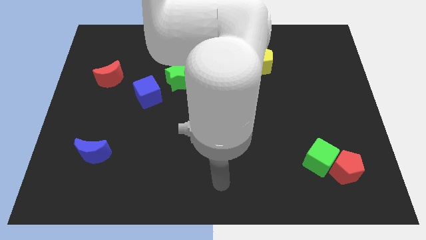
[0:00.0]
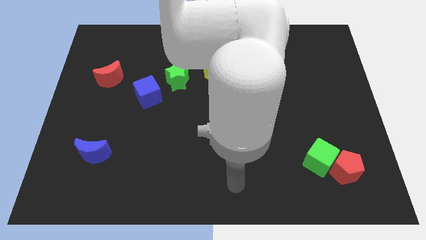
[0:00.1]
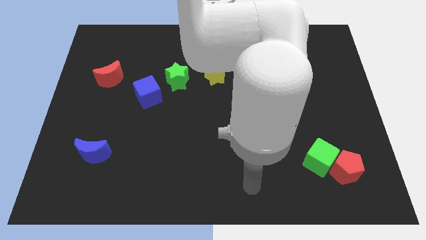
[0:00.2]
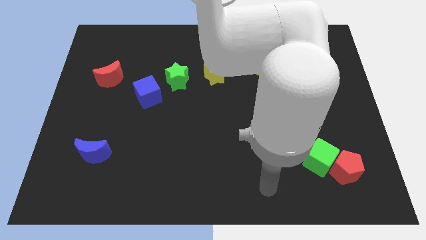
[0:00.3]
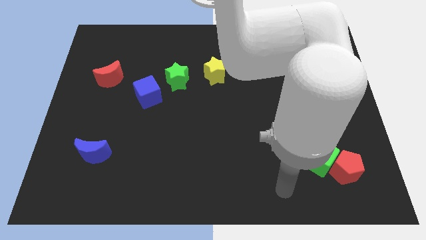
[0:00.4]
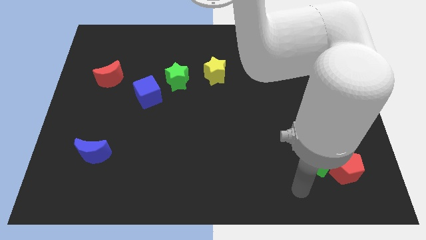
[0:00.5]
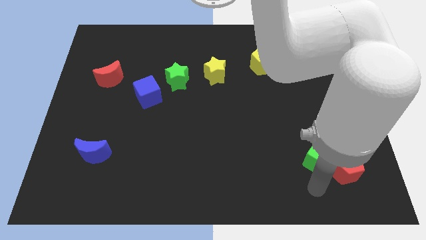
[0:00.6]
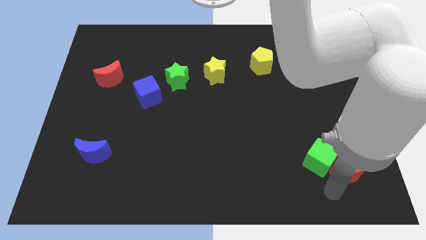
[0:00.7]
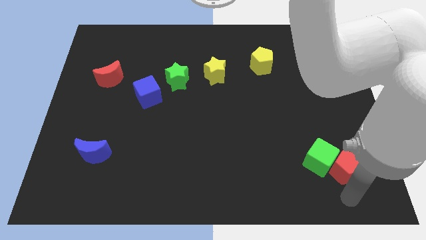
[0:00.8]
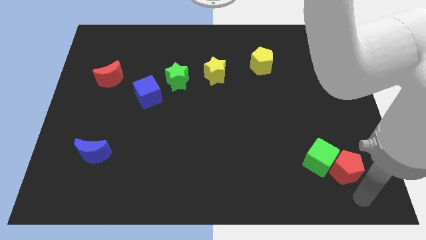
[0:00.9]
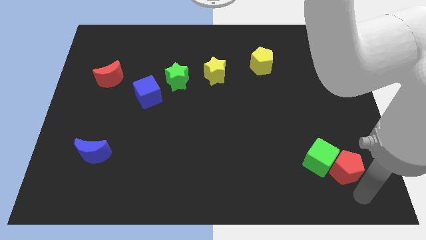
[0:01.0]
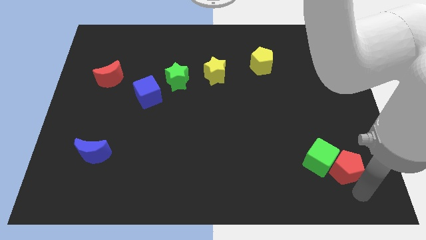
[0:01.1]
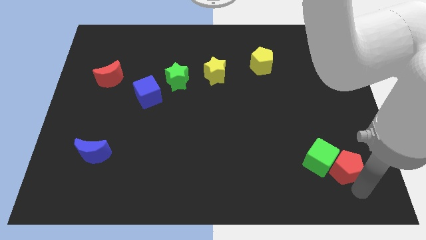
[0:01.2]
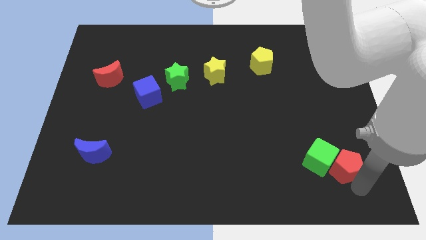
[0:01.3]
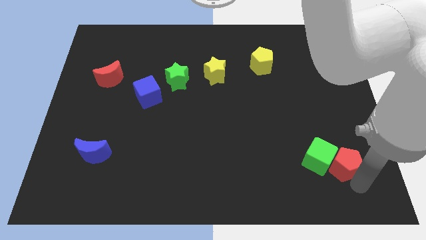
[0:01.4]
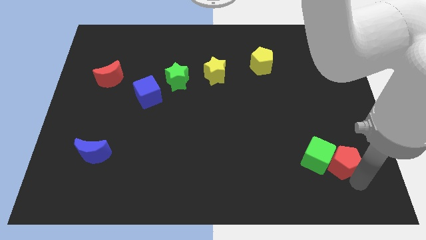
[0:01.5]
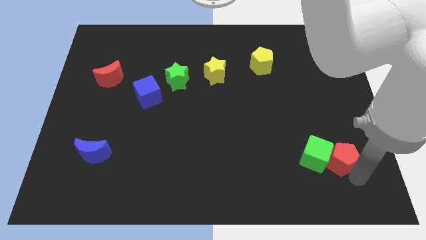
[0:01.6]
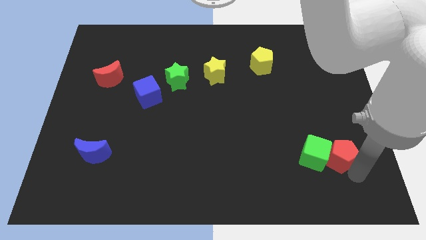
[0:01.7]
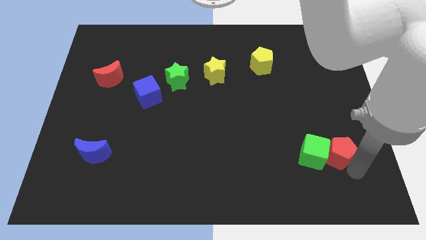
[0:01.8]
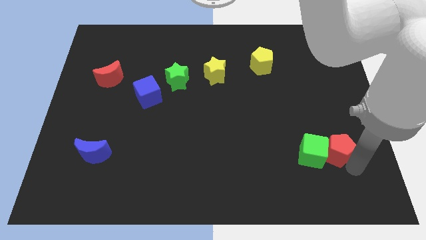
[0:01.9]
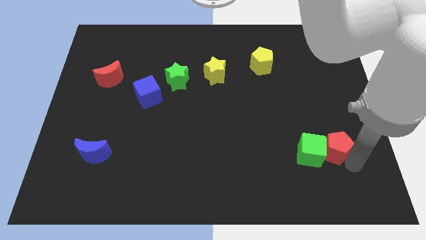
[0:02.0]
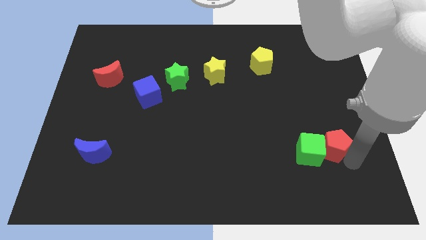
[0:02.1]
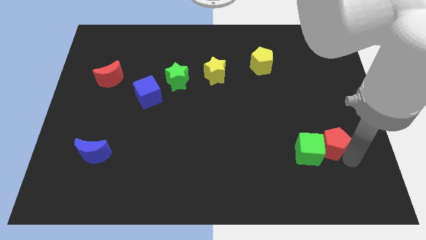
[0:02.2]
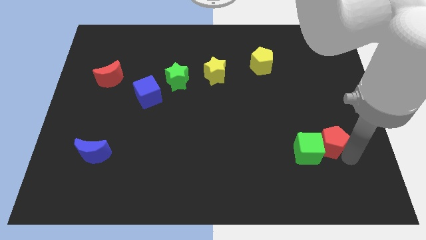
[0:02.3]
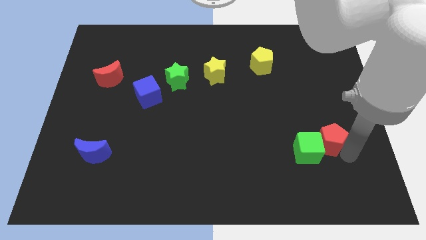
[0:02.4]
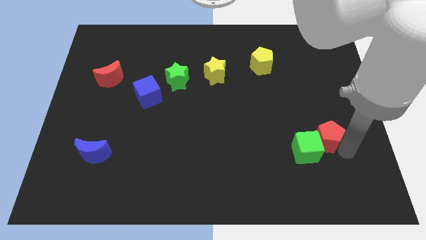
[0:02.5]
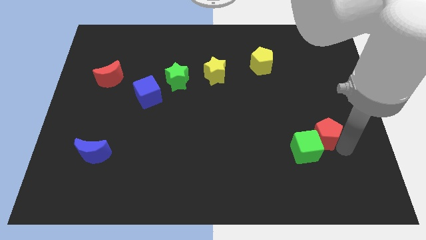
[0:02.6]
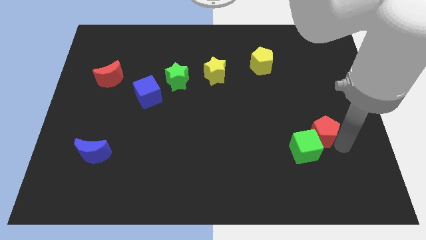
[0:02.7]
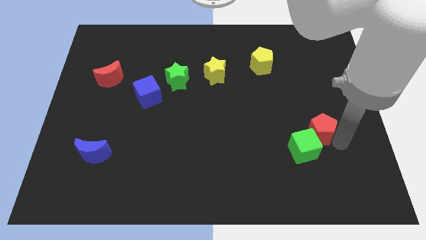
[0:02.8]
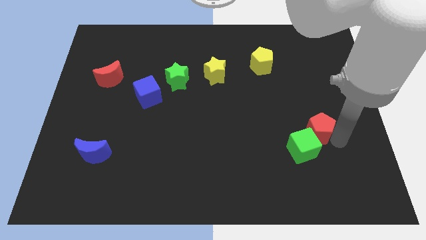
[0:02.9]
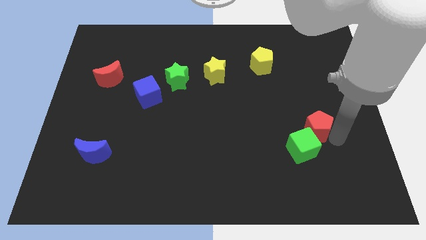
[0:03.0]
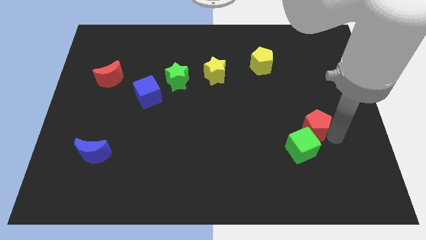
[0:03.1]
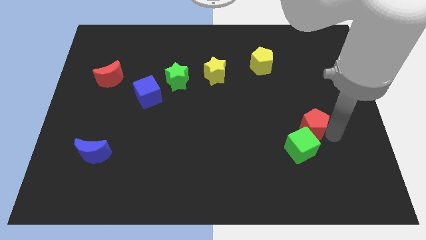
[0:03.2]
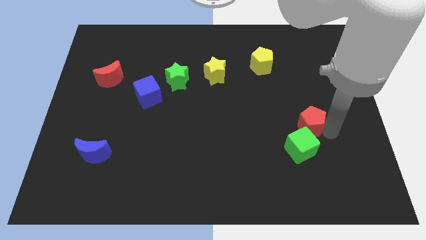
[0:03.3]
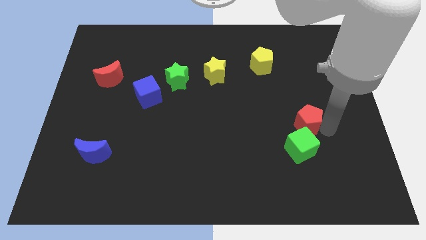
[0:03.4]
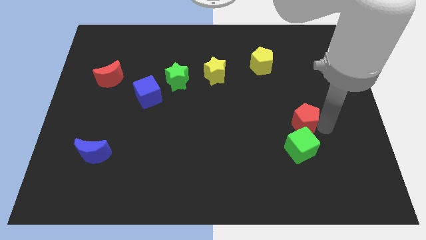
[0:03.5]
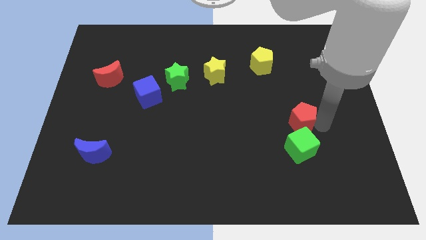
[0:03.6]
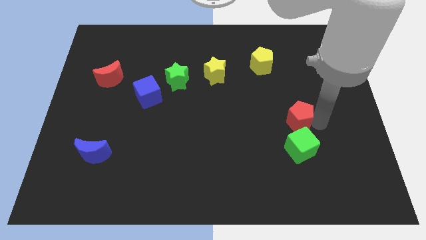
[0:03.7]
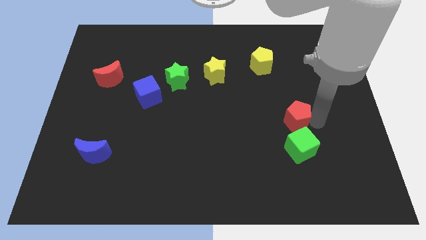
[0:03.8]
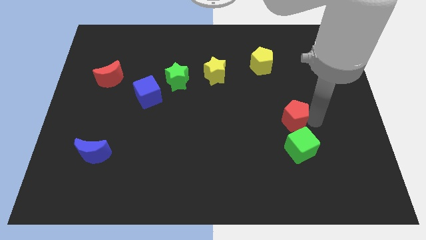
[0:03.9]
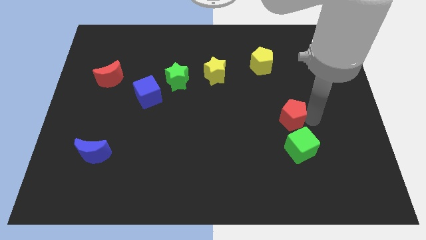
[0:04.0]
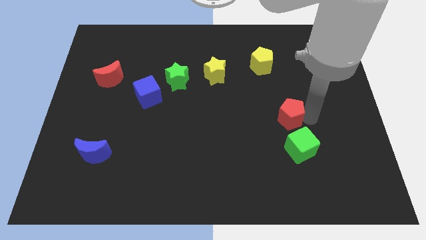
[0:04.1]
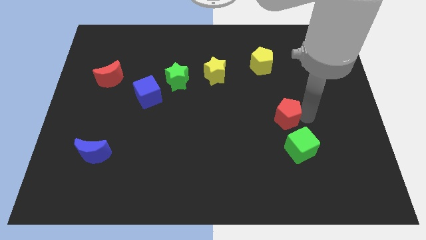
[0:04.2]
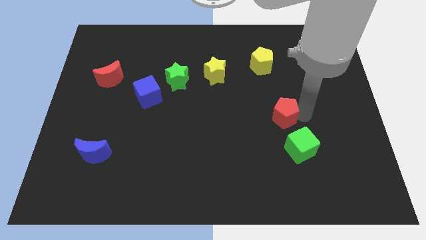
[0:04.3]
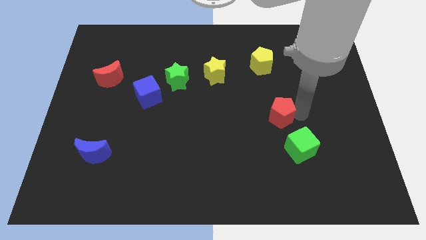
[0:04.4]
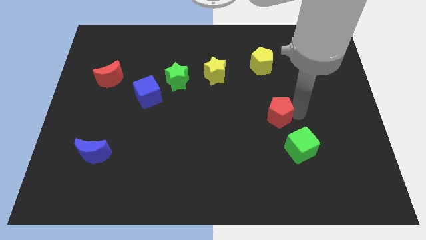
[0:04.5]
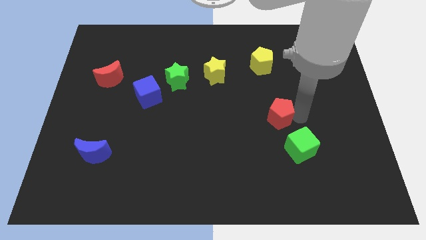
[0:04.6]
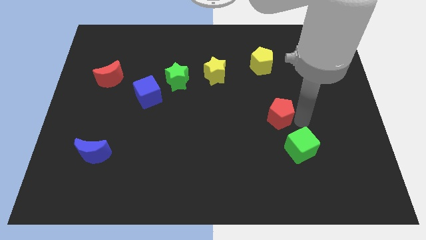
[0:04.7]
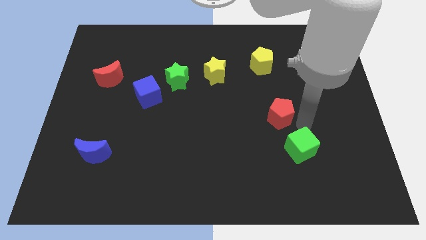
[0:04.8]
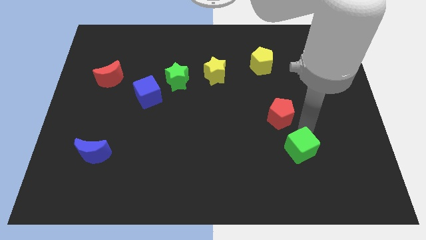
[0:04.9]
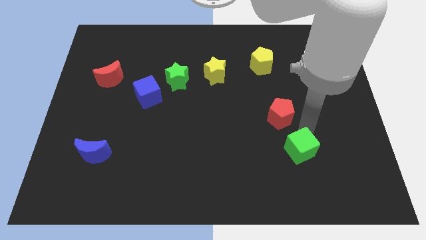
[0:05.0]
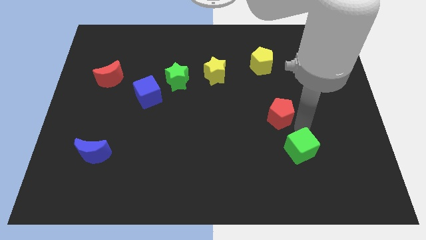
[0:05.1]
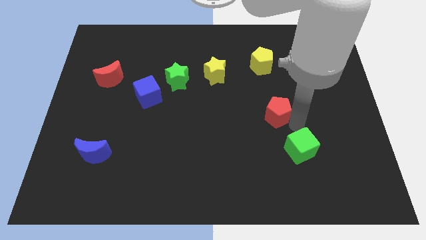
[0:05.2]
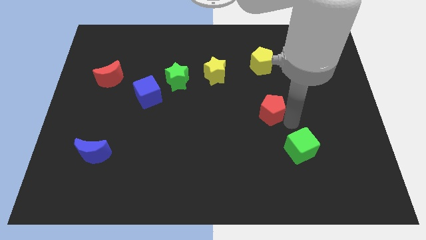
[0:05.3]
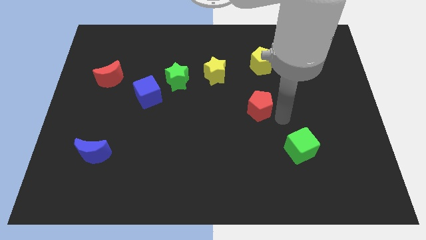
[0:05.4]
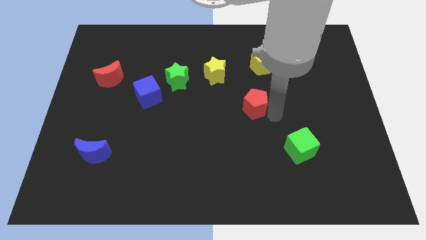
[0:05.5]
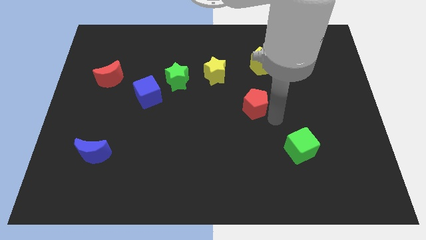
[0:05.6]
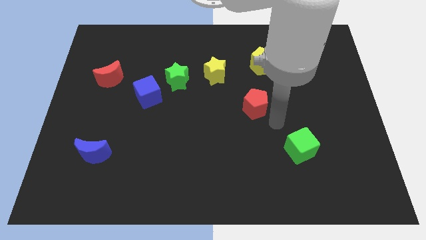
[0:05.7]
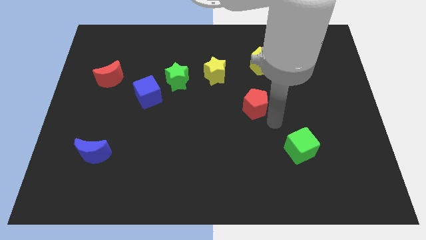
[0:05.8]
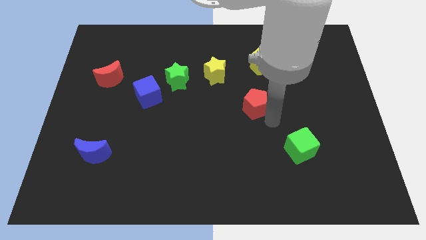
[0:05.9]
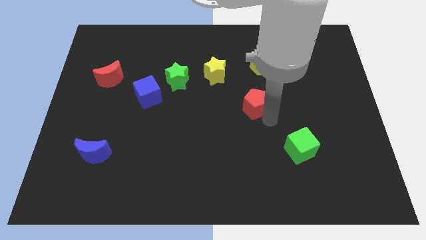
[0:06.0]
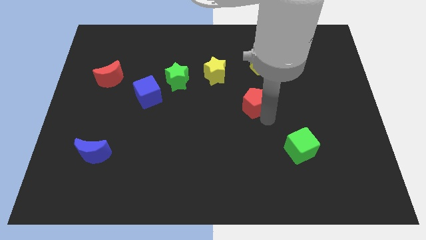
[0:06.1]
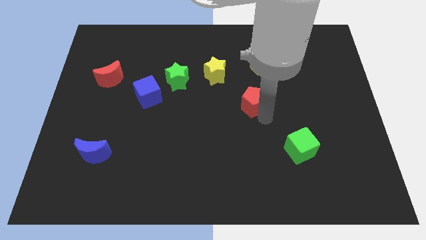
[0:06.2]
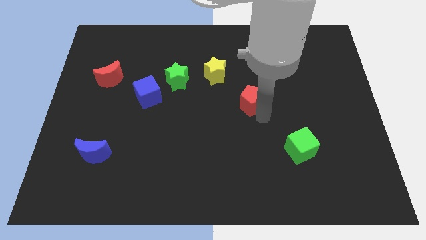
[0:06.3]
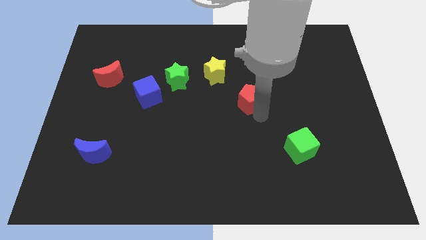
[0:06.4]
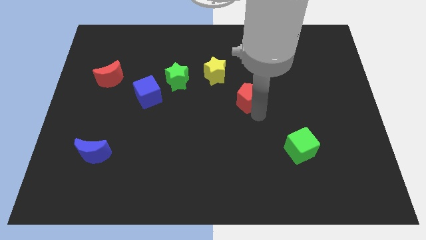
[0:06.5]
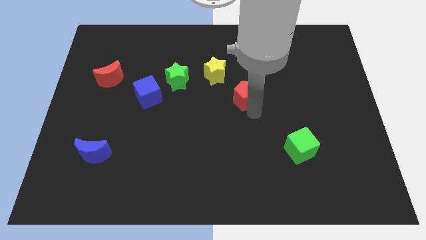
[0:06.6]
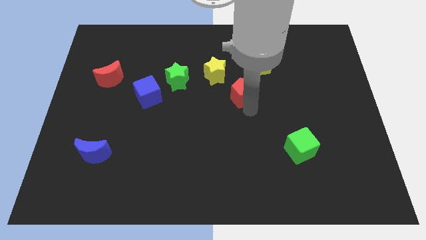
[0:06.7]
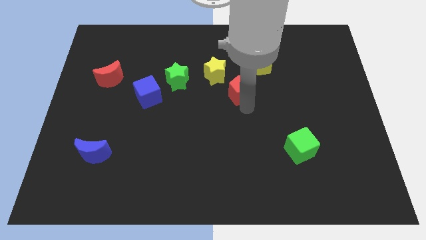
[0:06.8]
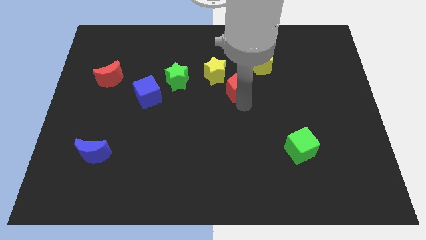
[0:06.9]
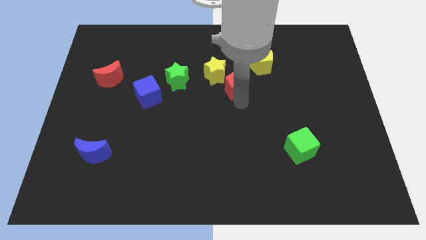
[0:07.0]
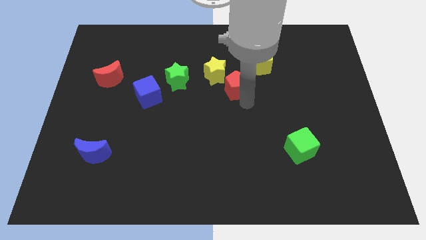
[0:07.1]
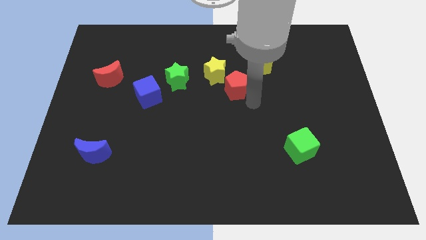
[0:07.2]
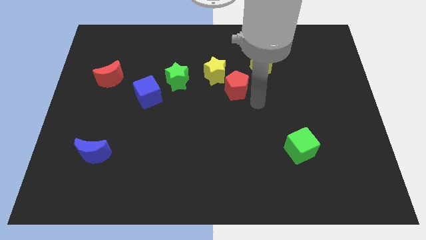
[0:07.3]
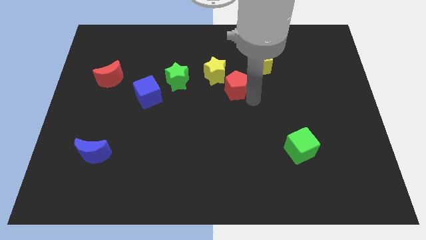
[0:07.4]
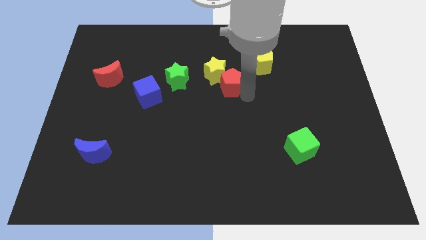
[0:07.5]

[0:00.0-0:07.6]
put the red pentagon close to the yellow star

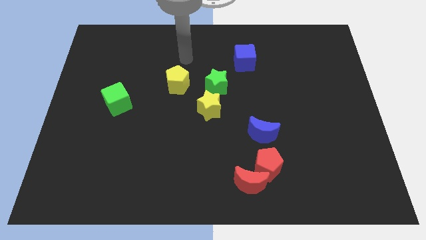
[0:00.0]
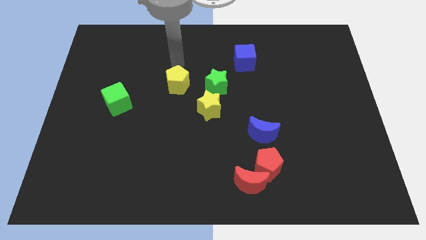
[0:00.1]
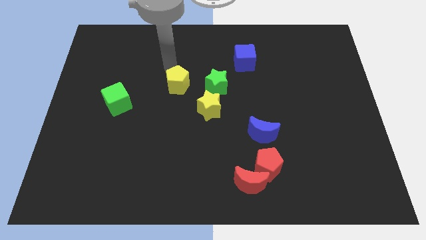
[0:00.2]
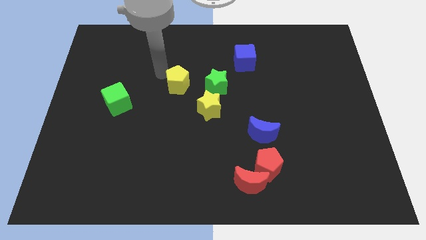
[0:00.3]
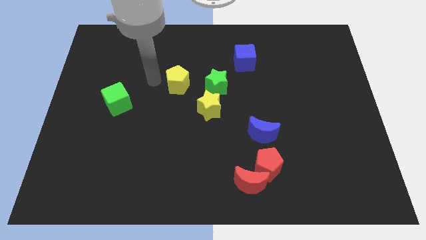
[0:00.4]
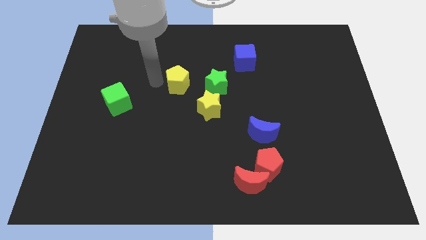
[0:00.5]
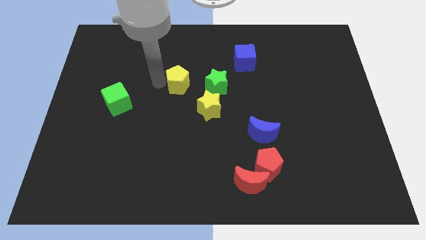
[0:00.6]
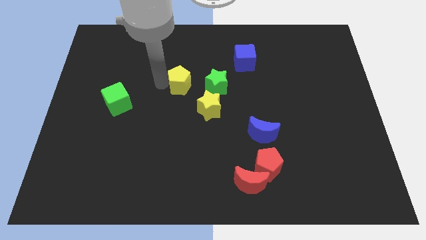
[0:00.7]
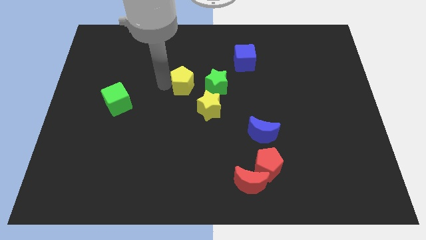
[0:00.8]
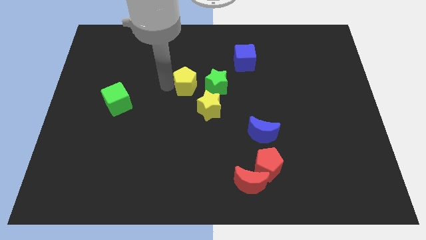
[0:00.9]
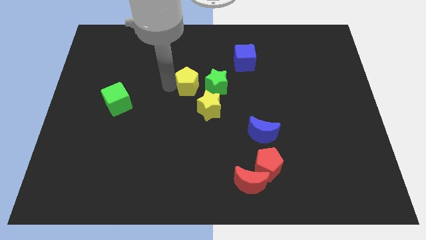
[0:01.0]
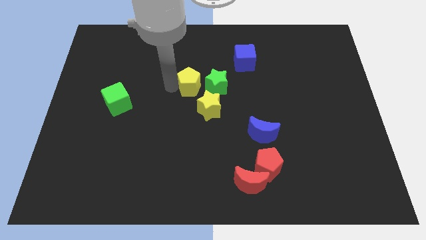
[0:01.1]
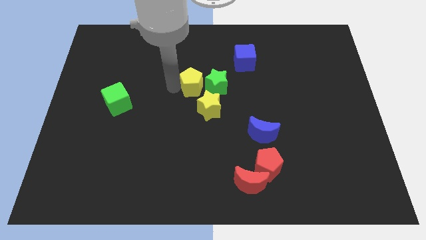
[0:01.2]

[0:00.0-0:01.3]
push the yellow pentagon next to the green star
